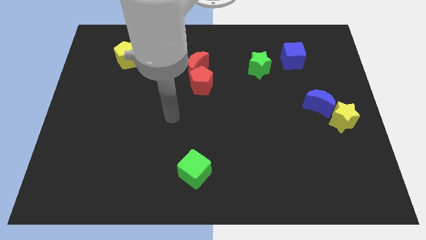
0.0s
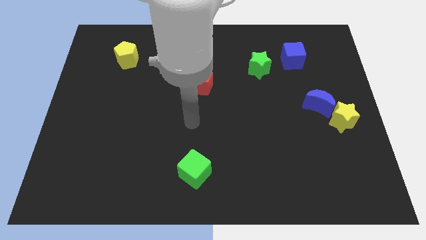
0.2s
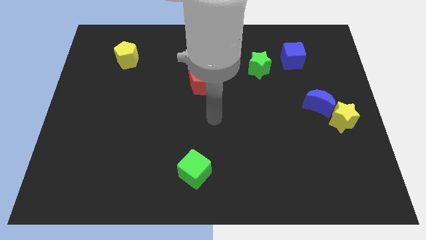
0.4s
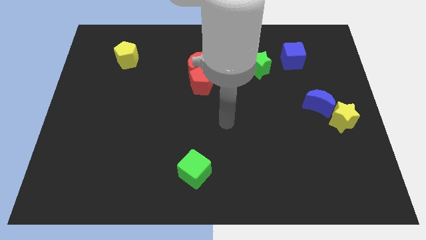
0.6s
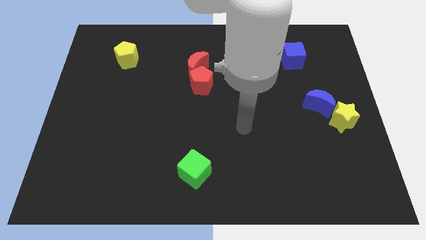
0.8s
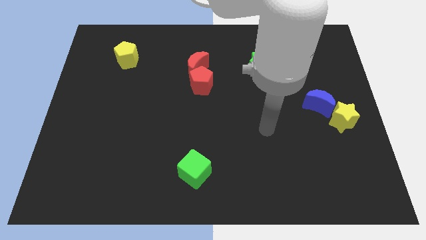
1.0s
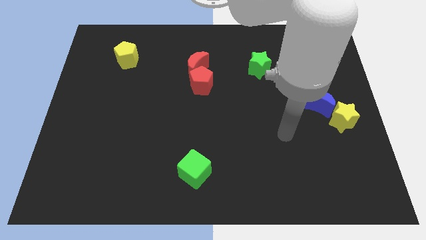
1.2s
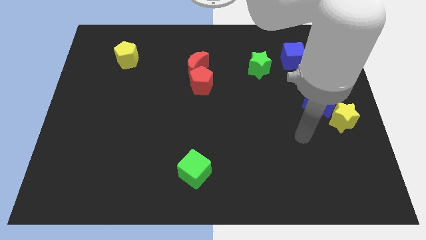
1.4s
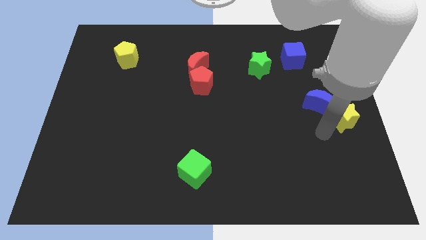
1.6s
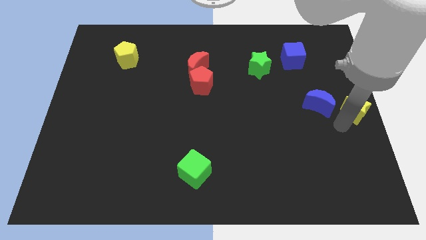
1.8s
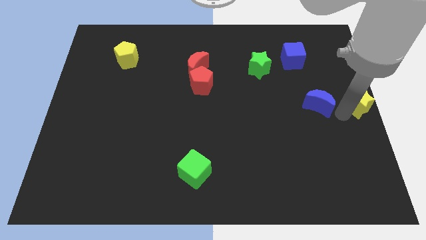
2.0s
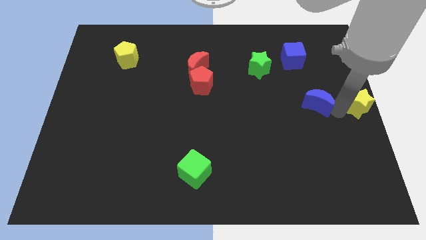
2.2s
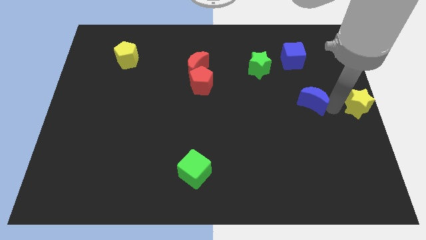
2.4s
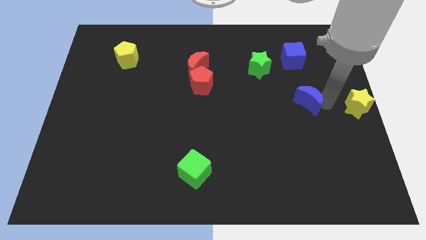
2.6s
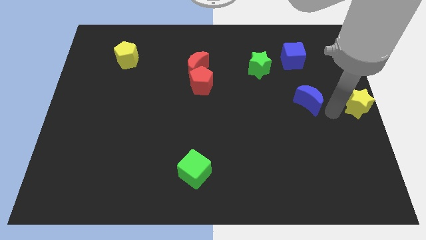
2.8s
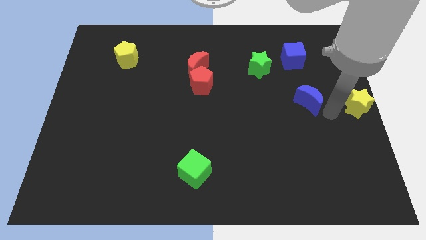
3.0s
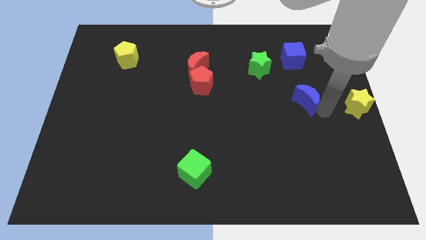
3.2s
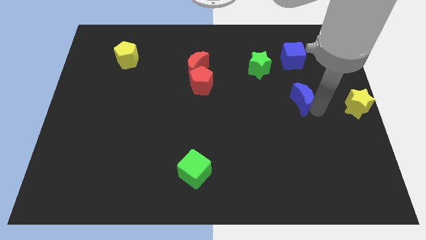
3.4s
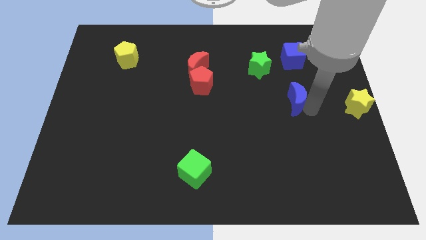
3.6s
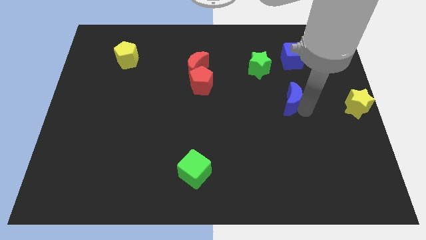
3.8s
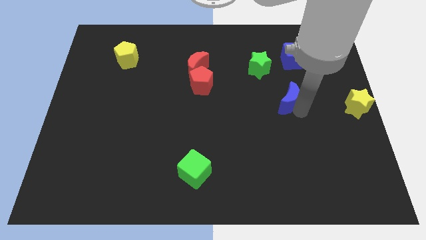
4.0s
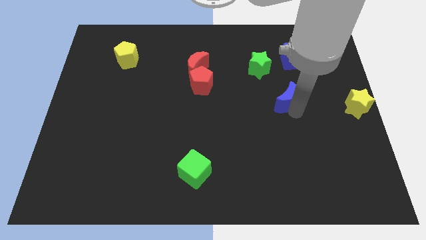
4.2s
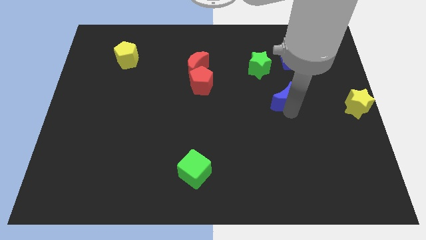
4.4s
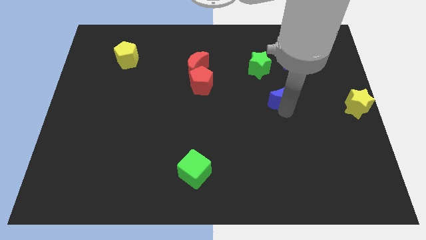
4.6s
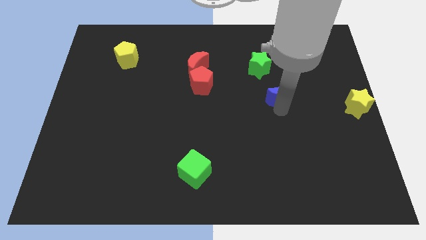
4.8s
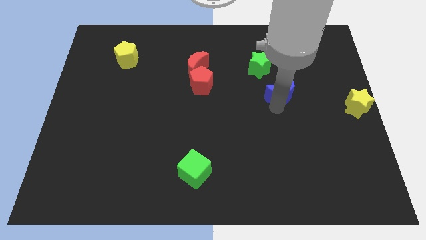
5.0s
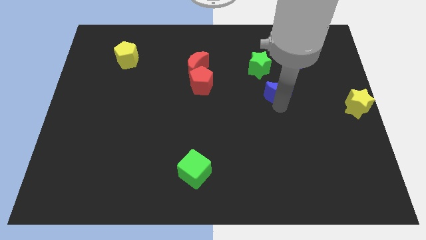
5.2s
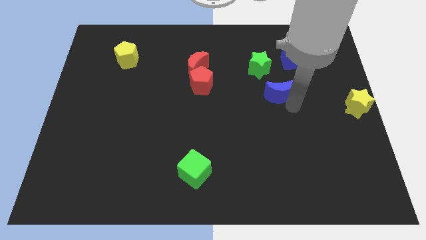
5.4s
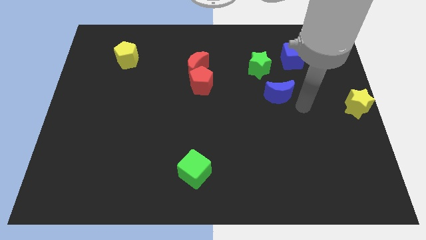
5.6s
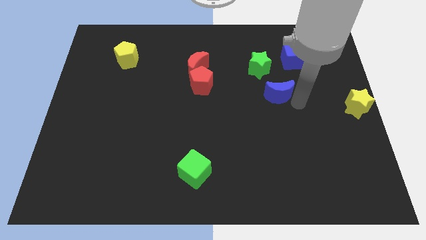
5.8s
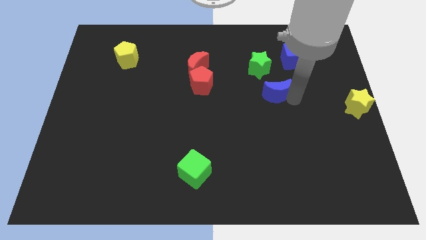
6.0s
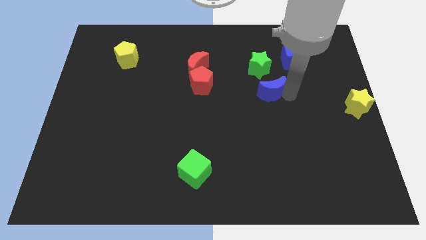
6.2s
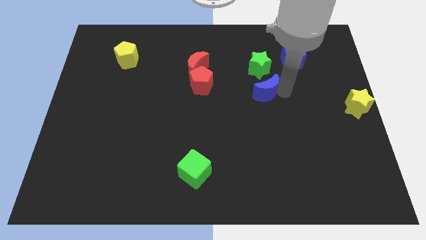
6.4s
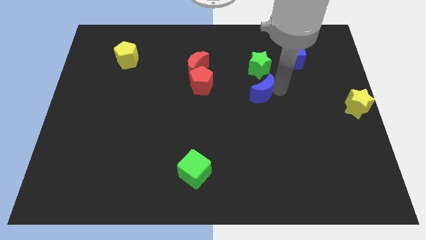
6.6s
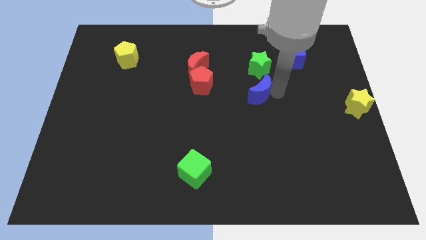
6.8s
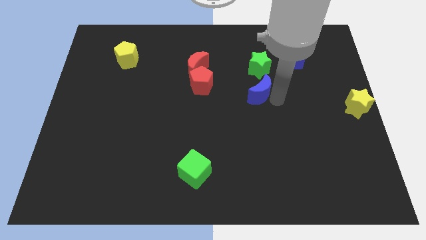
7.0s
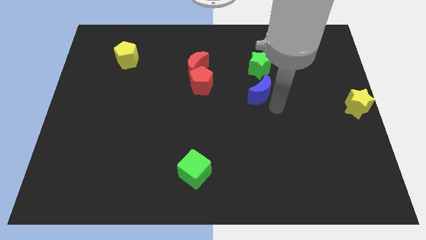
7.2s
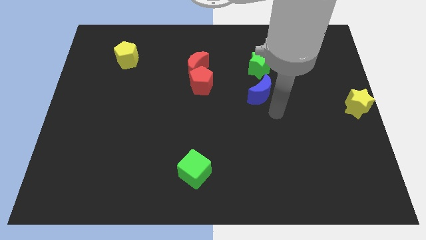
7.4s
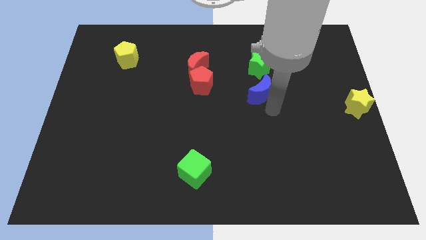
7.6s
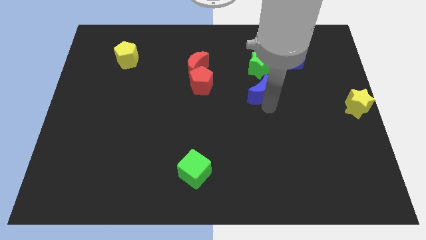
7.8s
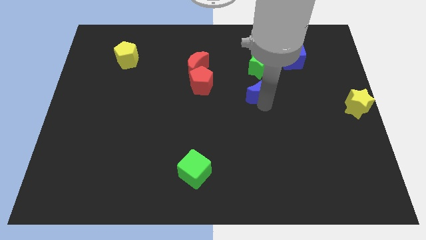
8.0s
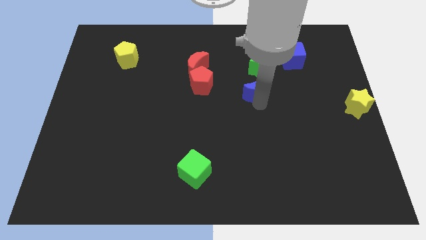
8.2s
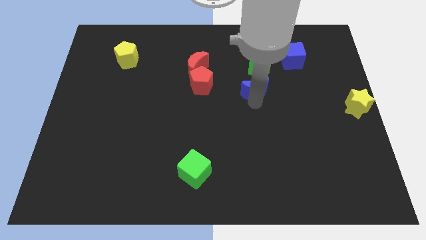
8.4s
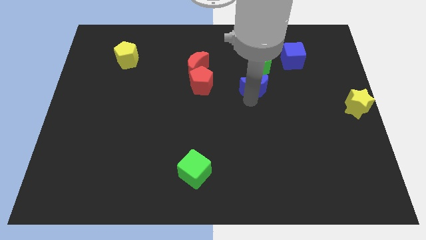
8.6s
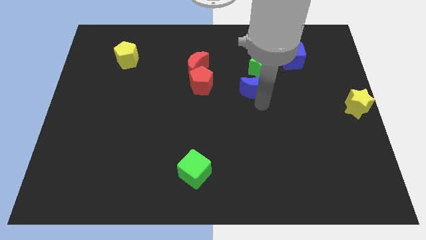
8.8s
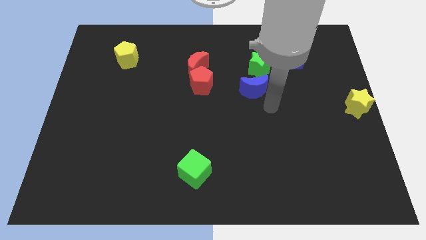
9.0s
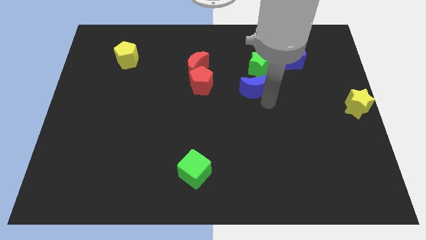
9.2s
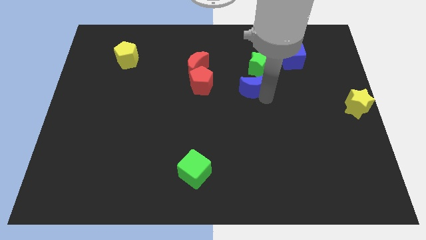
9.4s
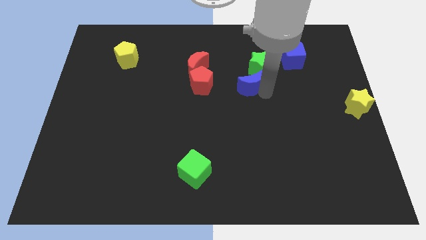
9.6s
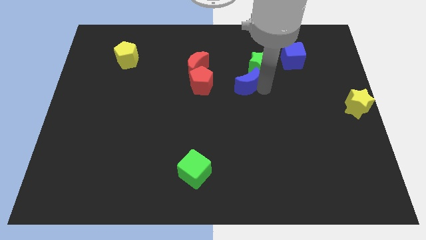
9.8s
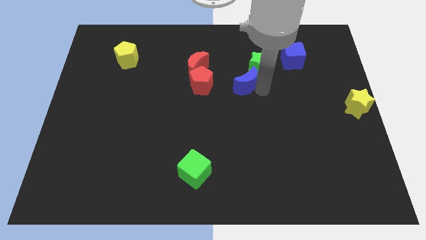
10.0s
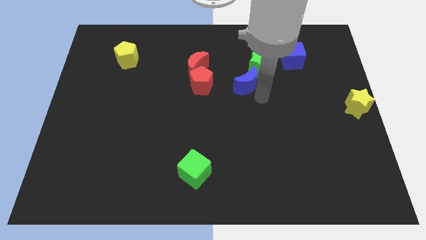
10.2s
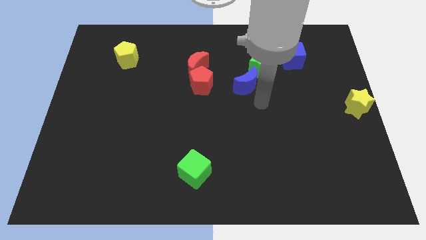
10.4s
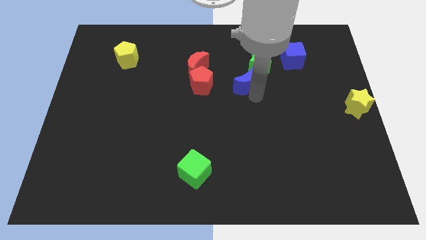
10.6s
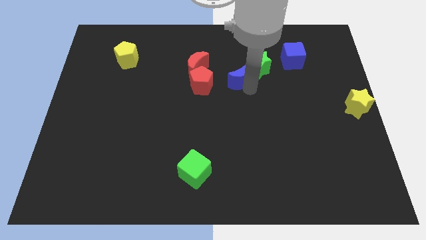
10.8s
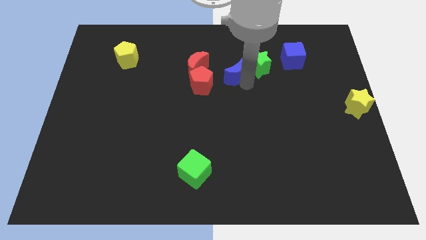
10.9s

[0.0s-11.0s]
slide the blue moon to the top right of the red pentagon

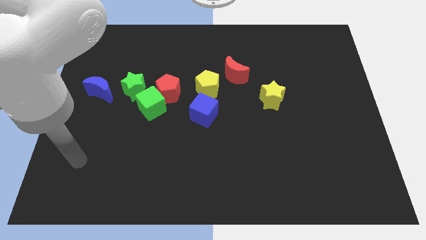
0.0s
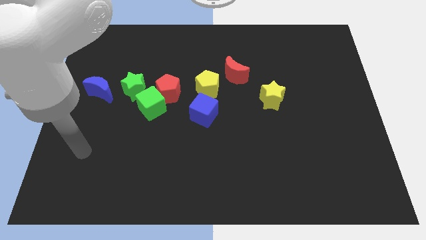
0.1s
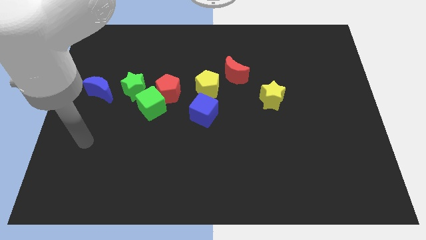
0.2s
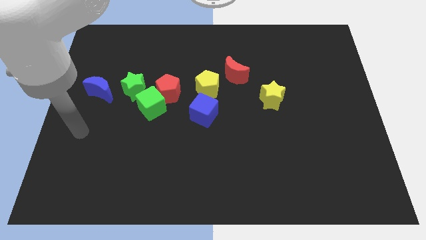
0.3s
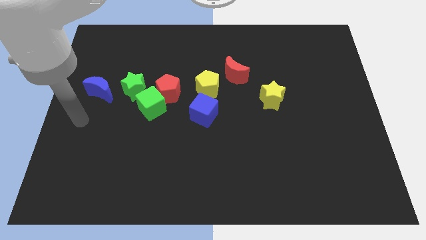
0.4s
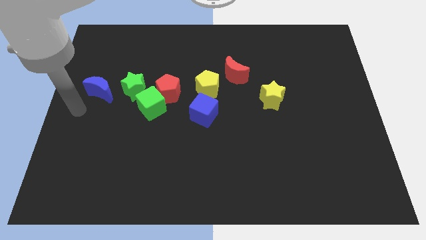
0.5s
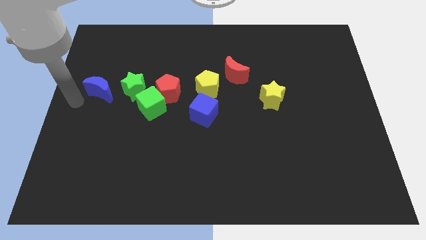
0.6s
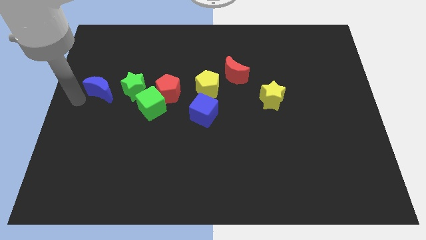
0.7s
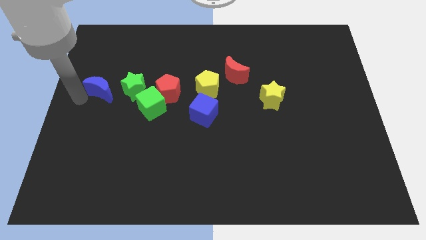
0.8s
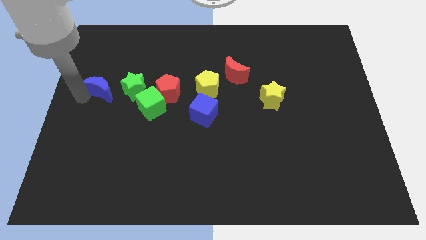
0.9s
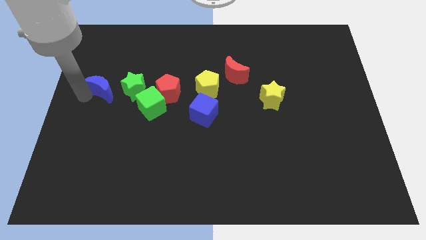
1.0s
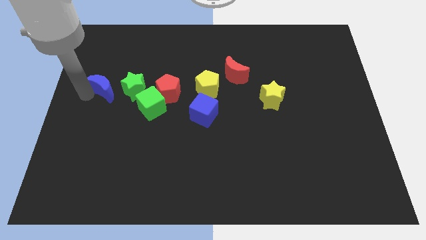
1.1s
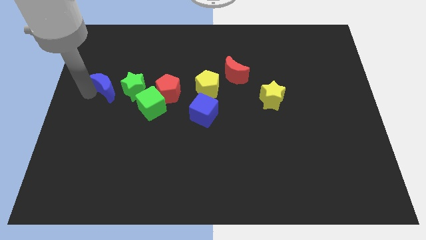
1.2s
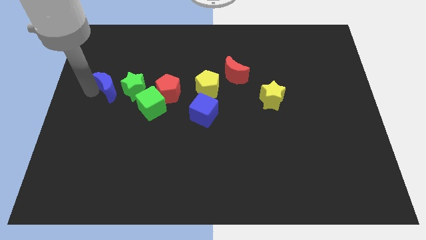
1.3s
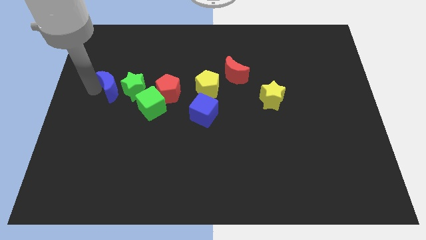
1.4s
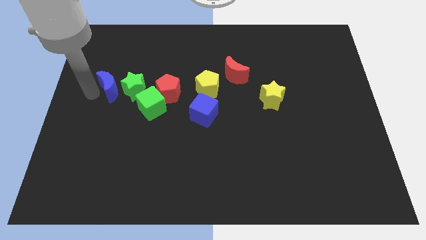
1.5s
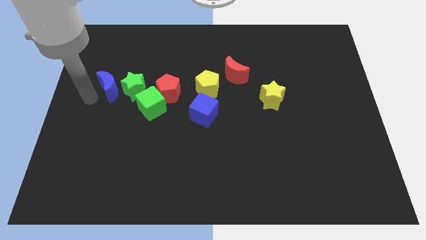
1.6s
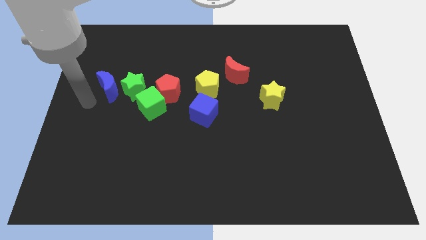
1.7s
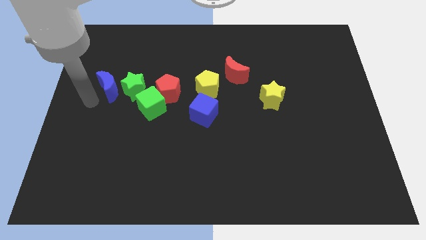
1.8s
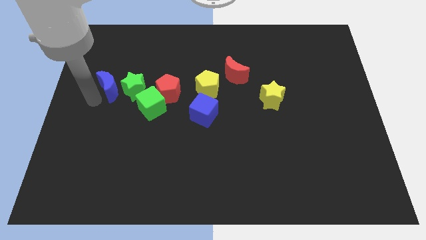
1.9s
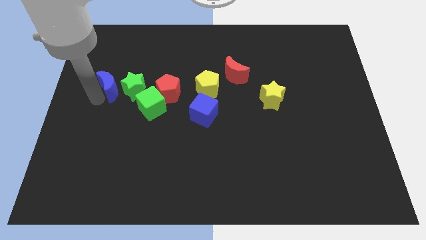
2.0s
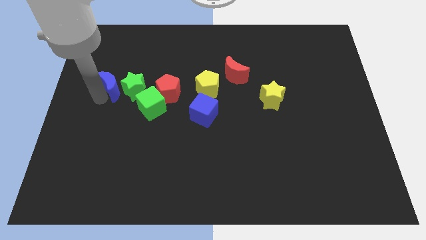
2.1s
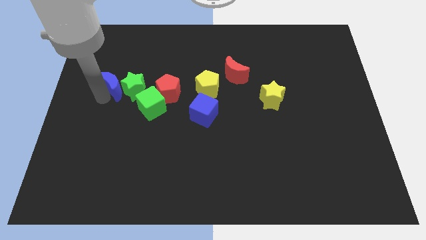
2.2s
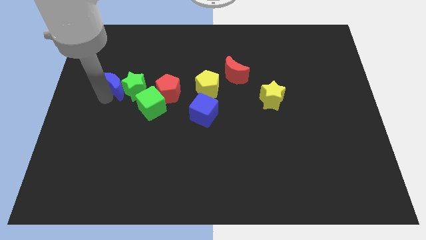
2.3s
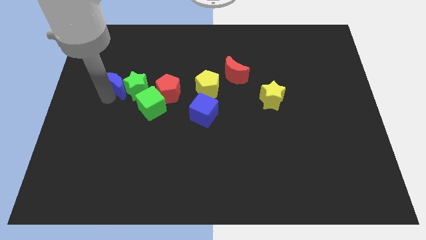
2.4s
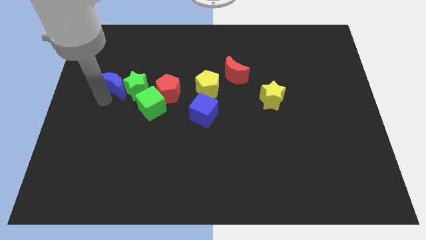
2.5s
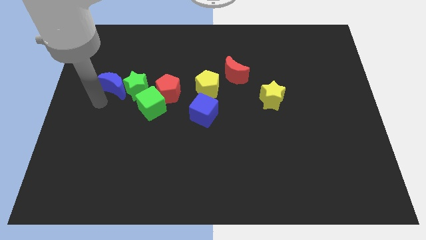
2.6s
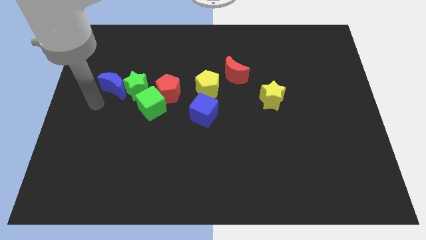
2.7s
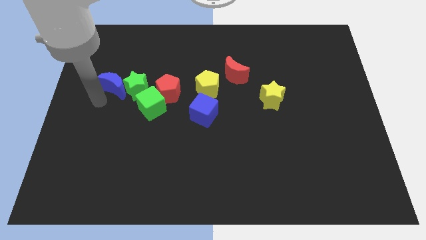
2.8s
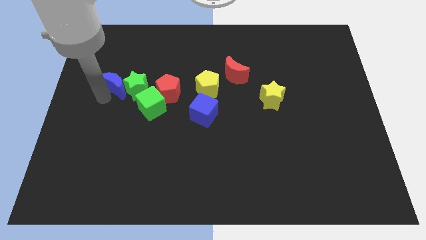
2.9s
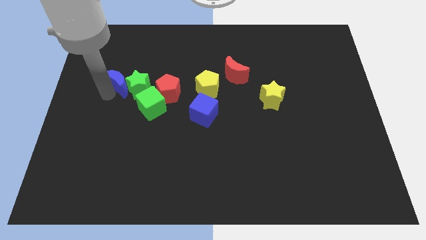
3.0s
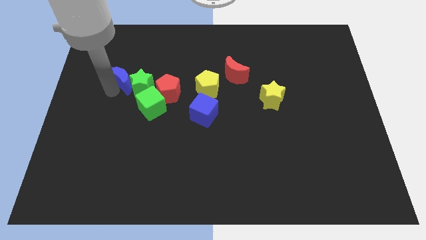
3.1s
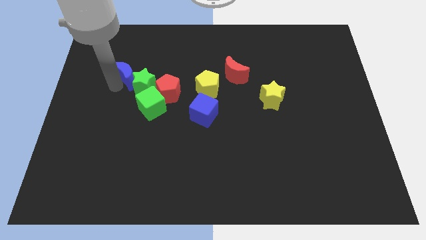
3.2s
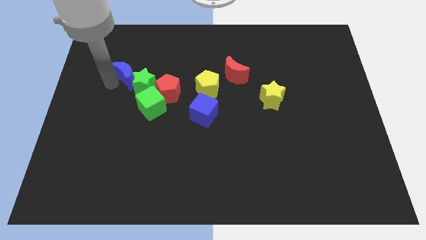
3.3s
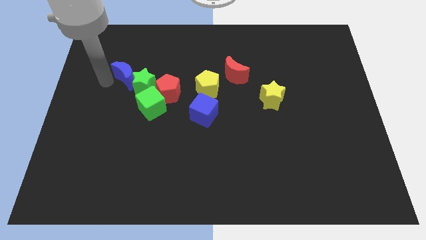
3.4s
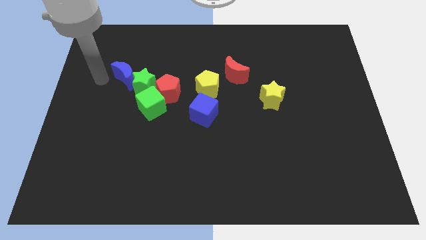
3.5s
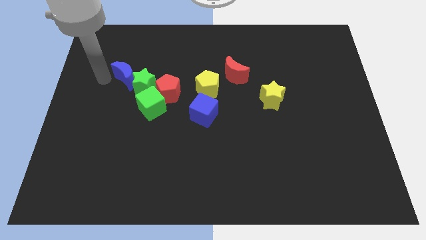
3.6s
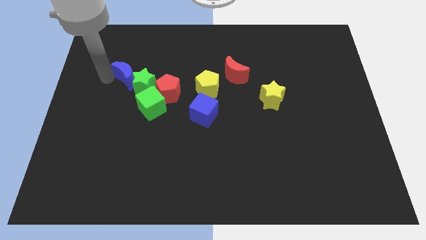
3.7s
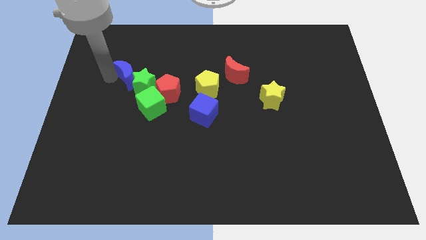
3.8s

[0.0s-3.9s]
push the blue moon to the top left side of the red pentagon
